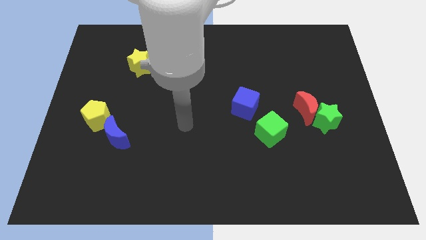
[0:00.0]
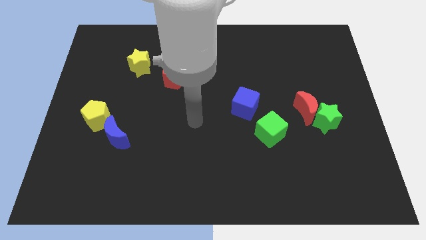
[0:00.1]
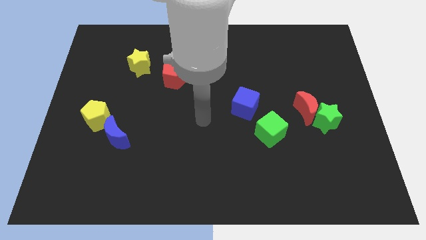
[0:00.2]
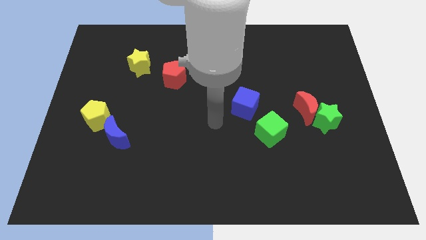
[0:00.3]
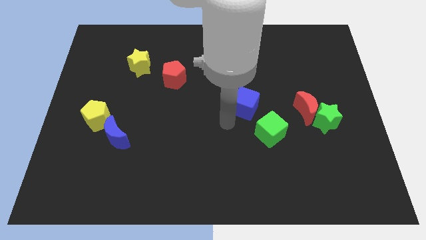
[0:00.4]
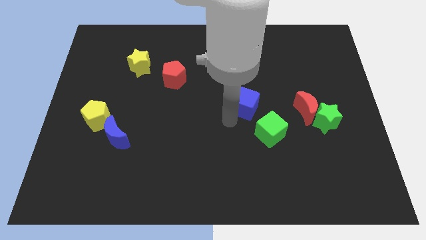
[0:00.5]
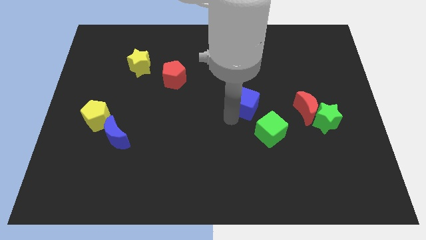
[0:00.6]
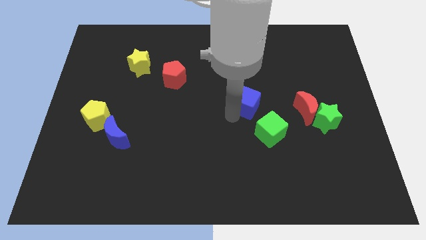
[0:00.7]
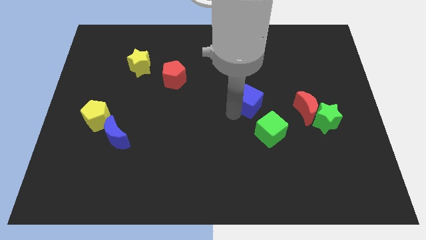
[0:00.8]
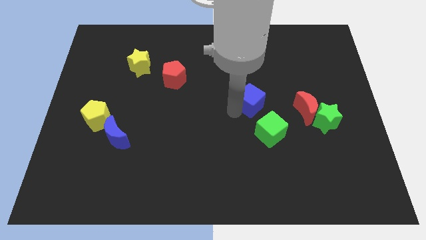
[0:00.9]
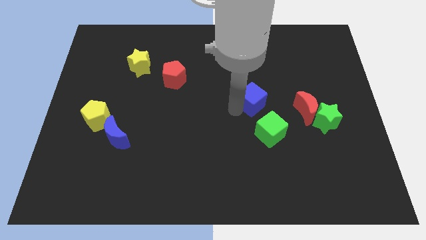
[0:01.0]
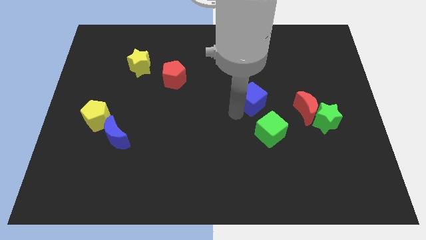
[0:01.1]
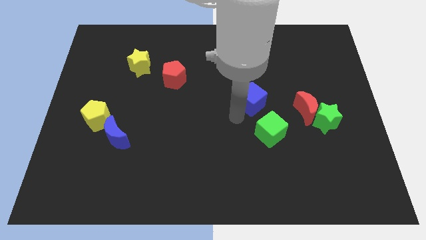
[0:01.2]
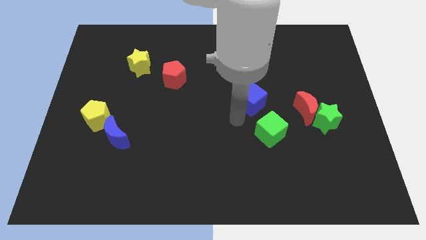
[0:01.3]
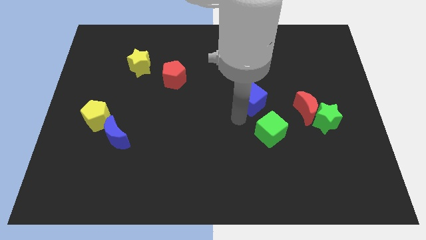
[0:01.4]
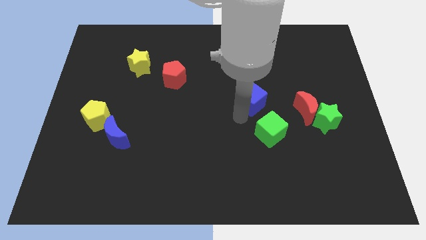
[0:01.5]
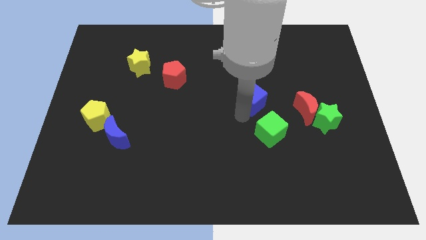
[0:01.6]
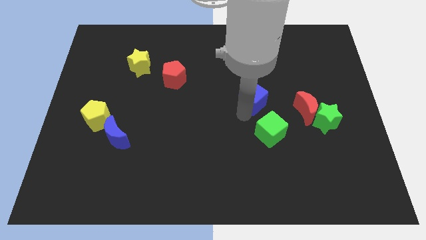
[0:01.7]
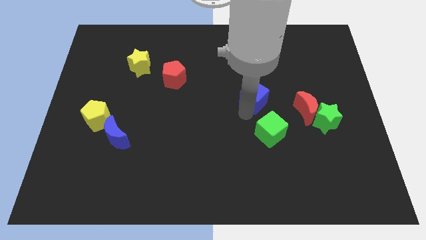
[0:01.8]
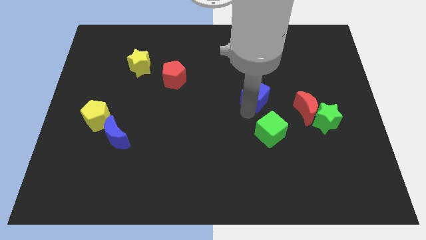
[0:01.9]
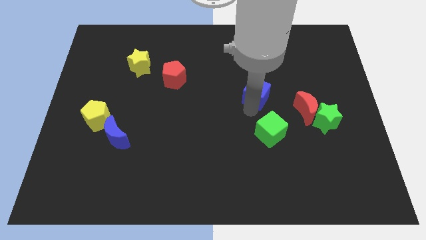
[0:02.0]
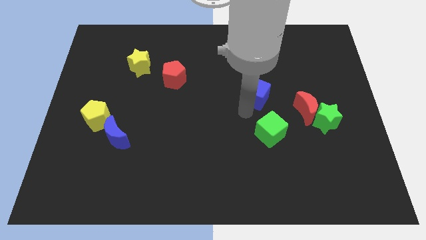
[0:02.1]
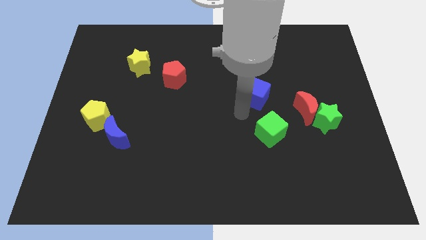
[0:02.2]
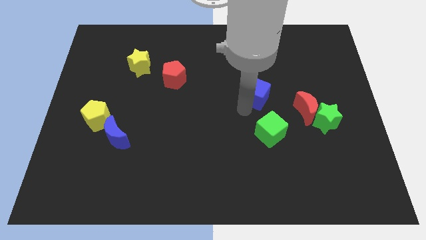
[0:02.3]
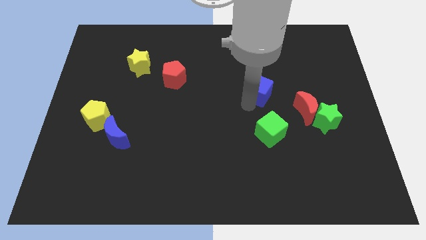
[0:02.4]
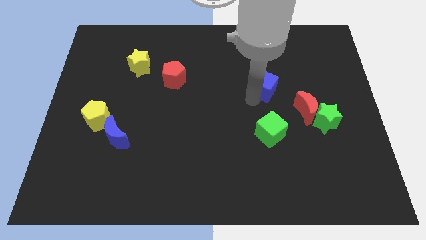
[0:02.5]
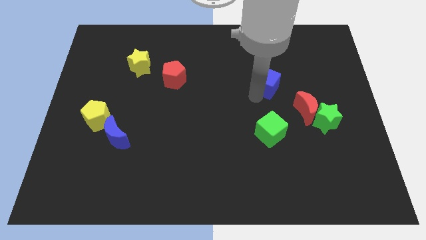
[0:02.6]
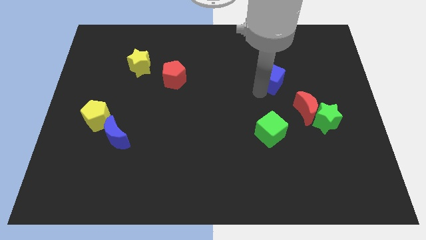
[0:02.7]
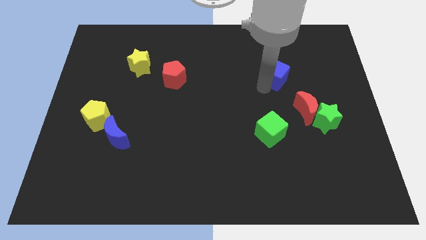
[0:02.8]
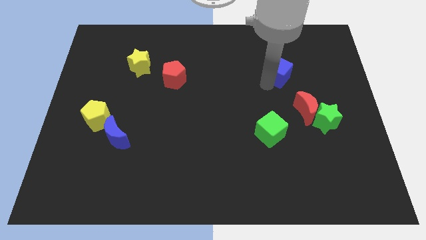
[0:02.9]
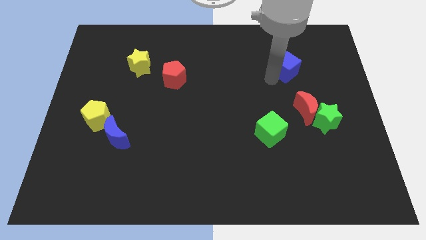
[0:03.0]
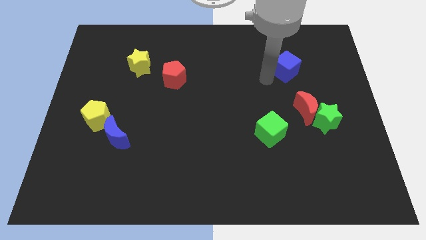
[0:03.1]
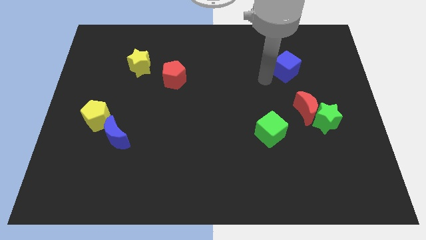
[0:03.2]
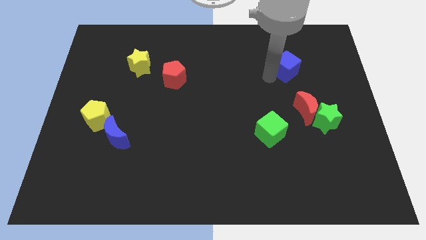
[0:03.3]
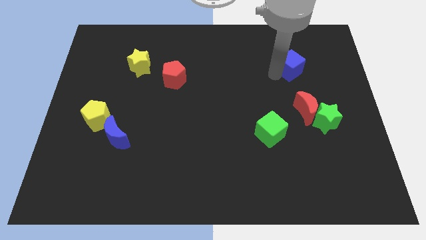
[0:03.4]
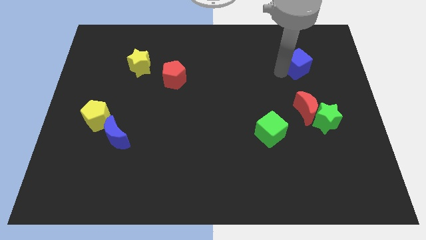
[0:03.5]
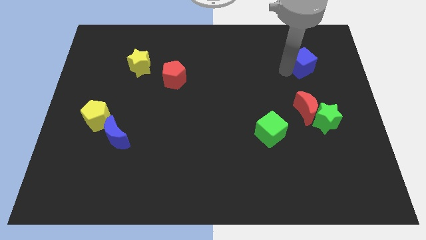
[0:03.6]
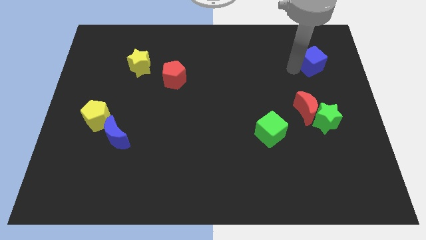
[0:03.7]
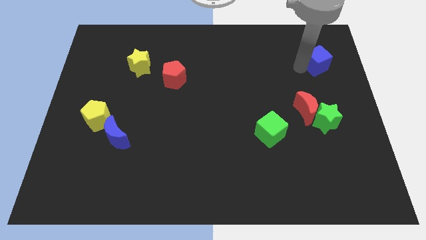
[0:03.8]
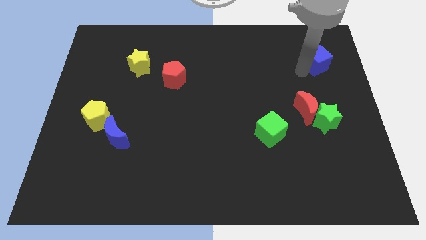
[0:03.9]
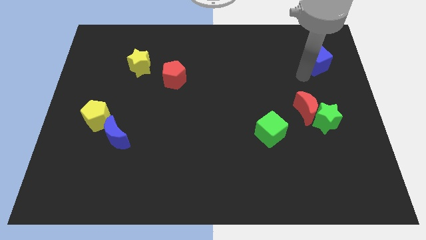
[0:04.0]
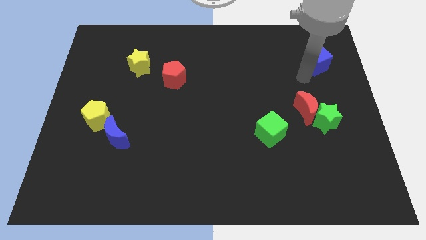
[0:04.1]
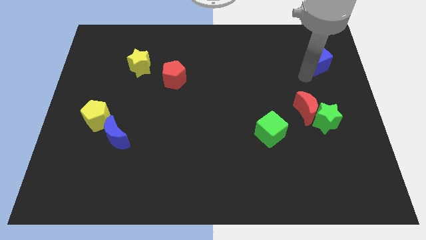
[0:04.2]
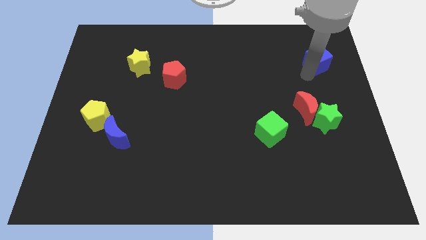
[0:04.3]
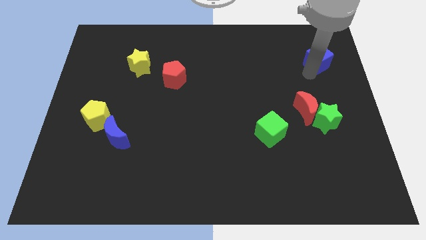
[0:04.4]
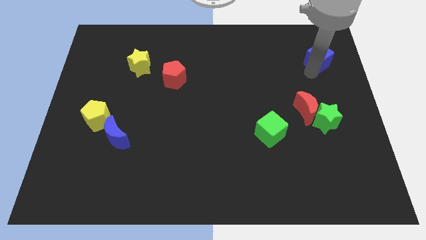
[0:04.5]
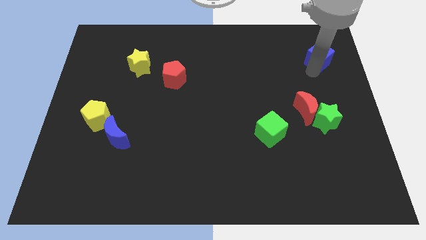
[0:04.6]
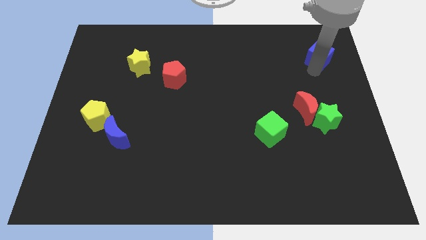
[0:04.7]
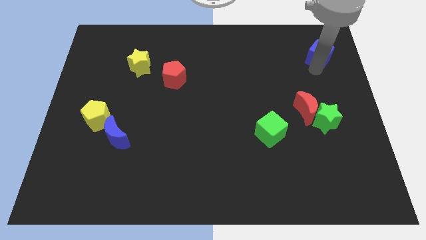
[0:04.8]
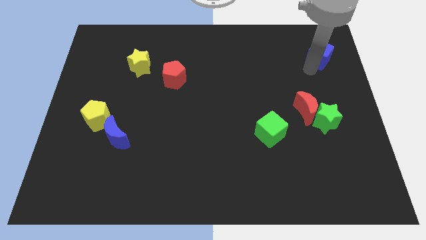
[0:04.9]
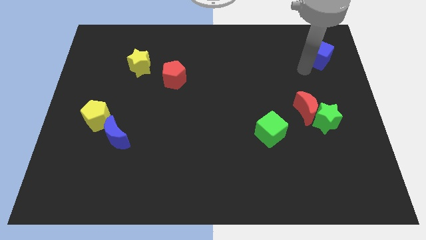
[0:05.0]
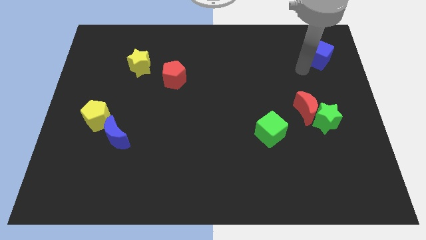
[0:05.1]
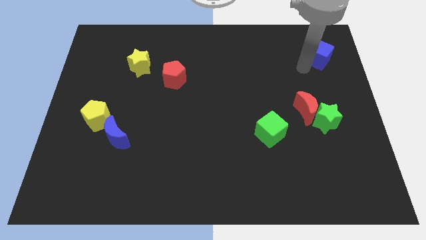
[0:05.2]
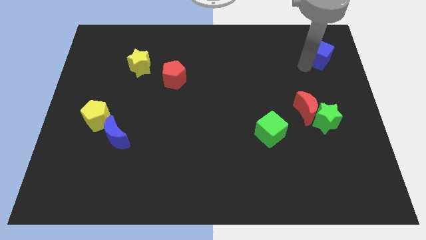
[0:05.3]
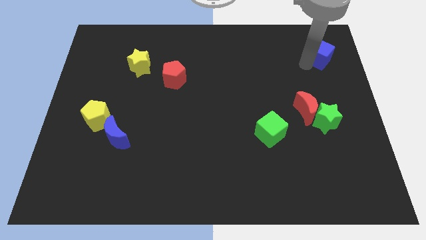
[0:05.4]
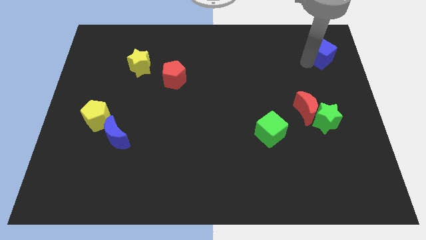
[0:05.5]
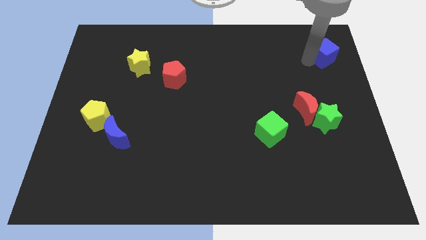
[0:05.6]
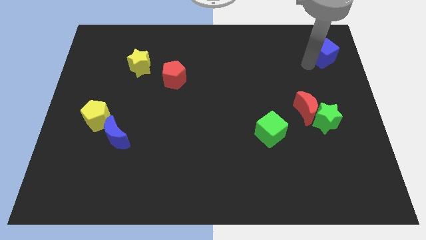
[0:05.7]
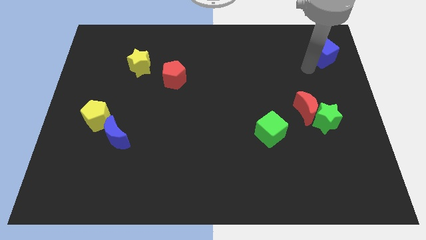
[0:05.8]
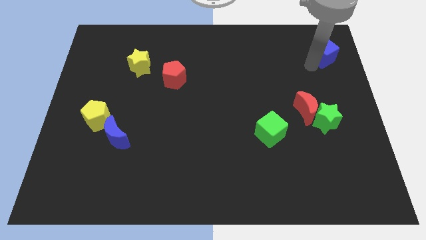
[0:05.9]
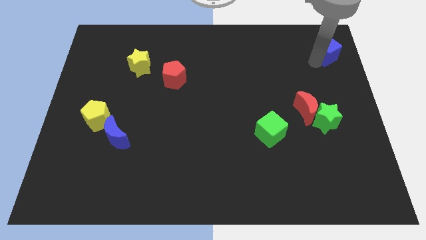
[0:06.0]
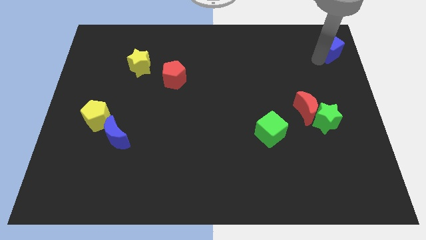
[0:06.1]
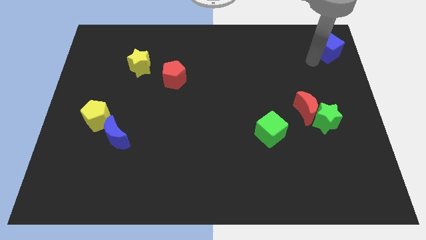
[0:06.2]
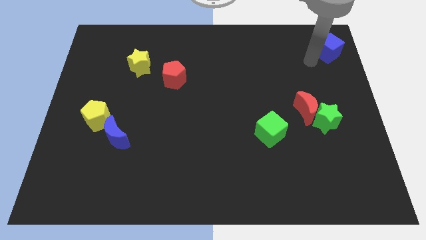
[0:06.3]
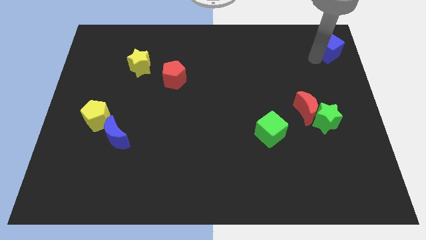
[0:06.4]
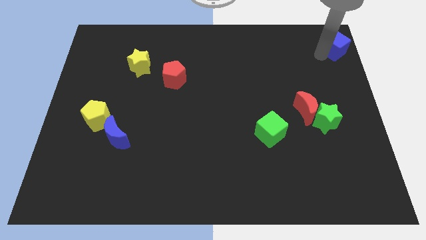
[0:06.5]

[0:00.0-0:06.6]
put the blue cube to the top right of the board
